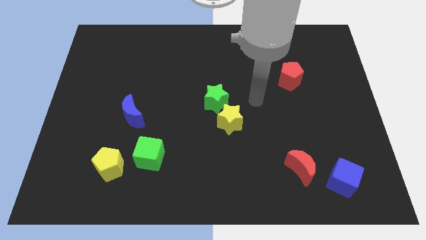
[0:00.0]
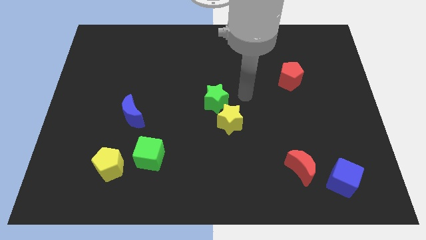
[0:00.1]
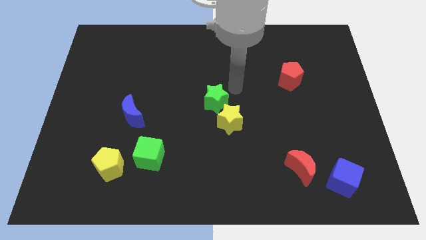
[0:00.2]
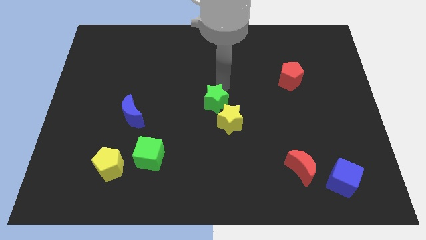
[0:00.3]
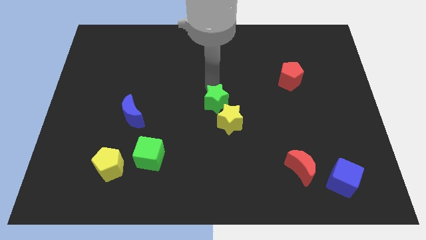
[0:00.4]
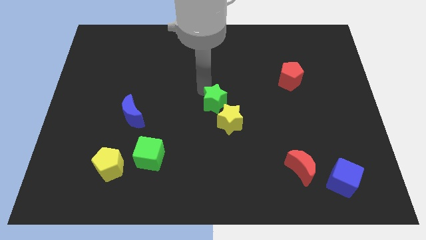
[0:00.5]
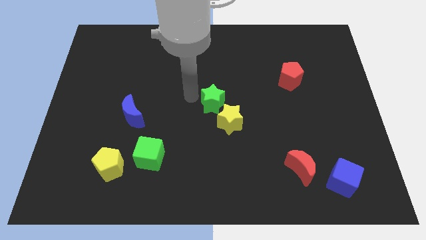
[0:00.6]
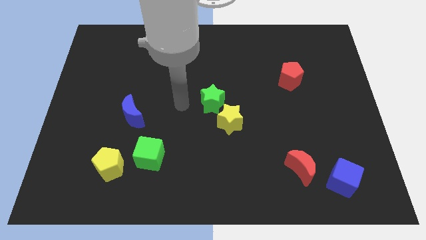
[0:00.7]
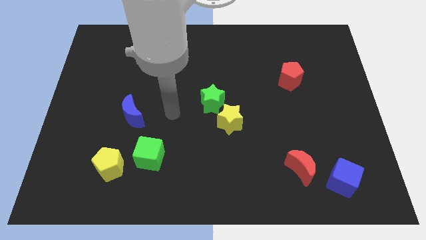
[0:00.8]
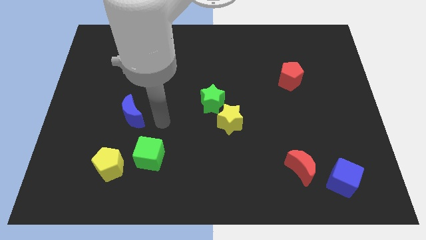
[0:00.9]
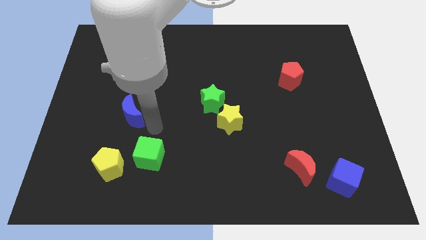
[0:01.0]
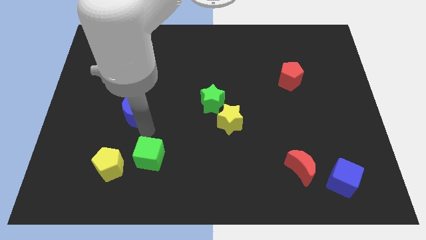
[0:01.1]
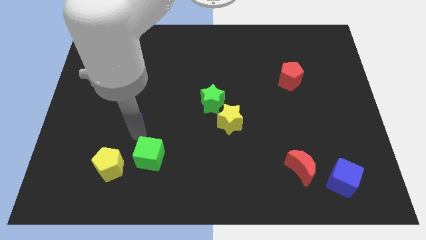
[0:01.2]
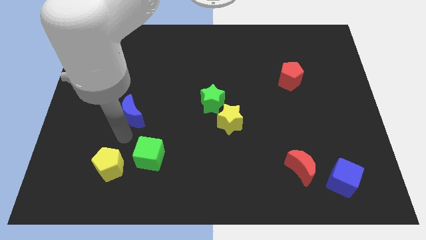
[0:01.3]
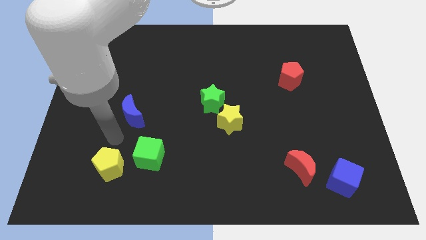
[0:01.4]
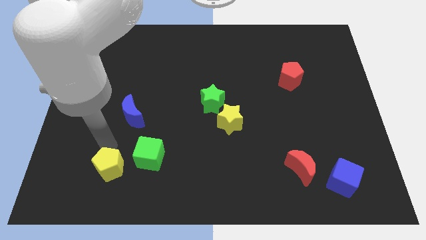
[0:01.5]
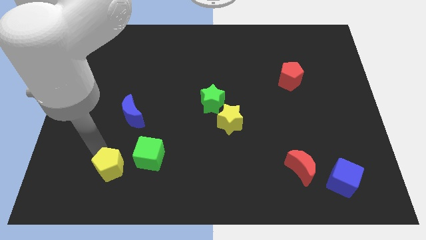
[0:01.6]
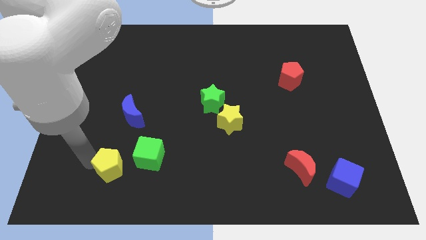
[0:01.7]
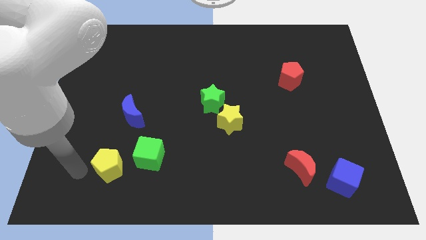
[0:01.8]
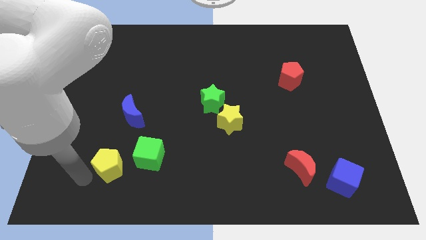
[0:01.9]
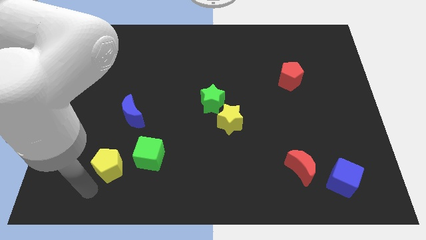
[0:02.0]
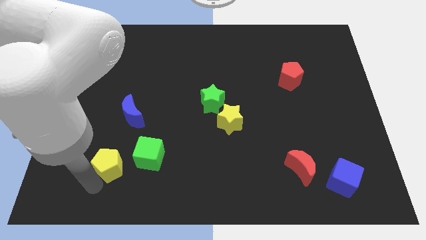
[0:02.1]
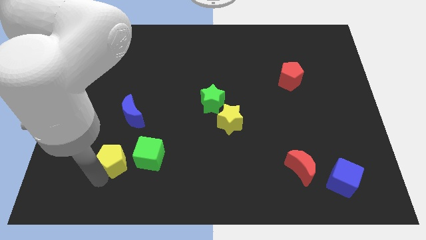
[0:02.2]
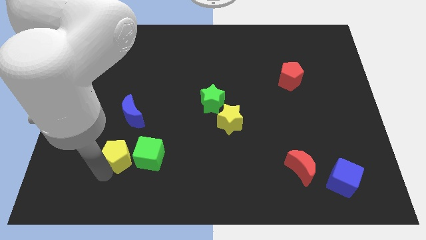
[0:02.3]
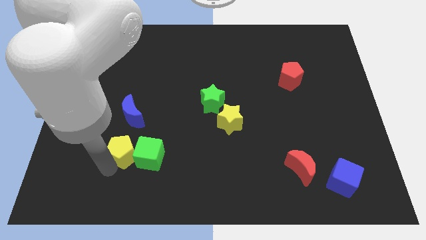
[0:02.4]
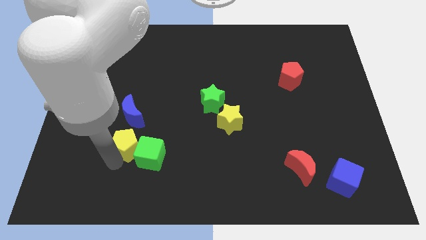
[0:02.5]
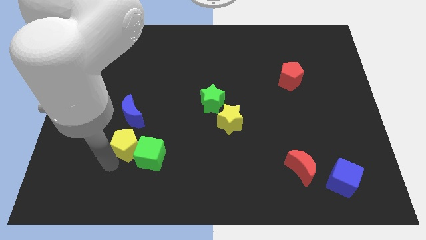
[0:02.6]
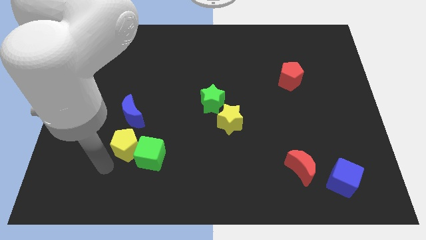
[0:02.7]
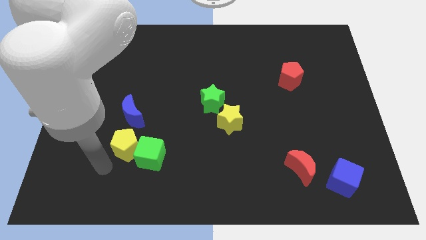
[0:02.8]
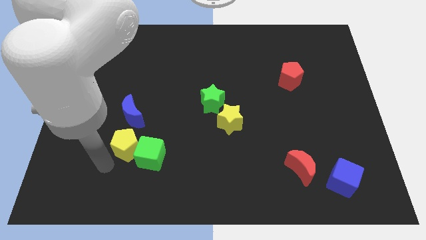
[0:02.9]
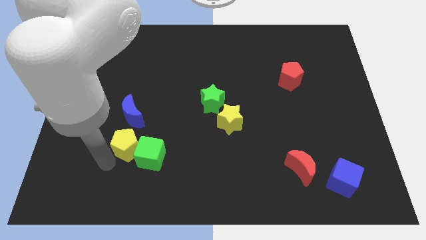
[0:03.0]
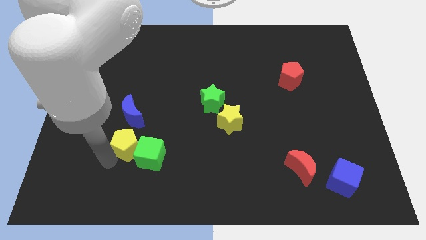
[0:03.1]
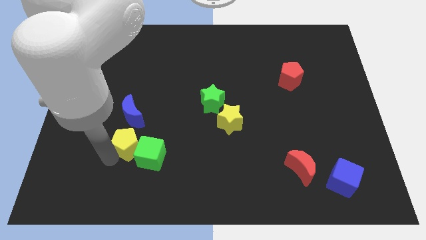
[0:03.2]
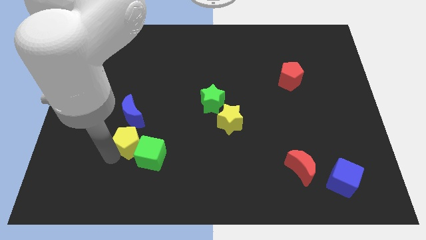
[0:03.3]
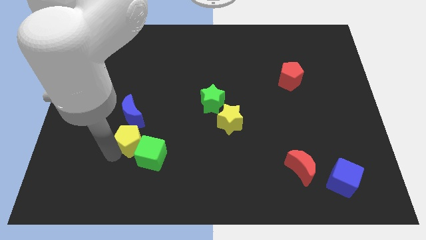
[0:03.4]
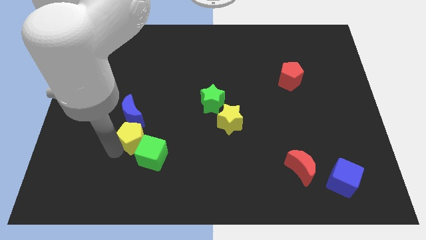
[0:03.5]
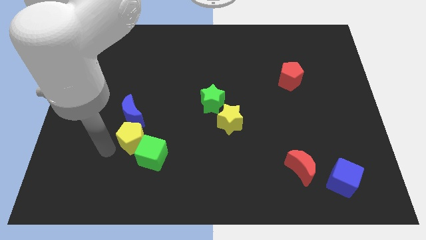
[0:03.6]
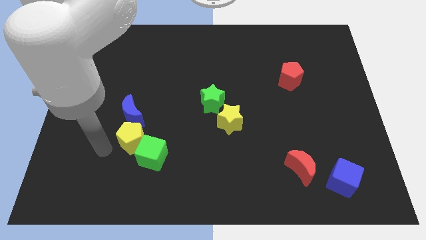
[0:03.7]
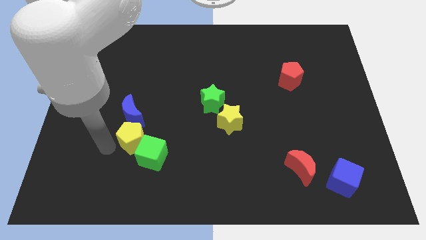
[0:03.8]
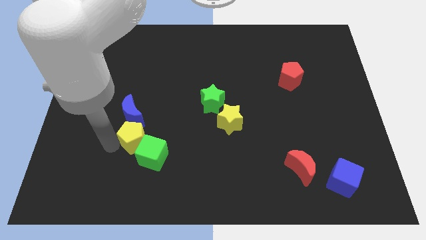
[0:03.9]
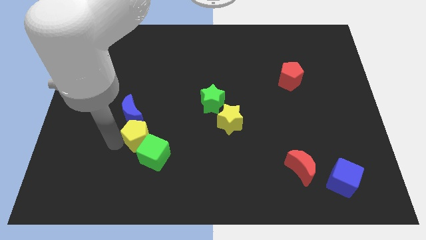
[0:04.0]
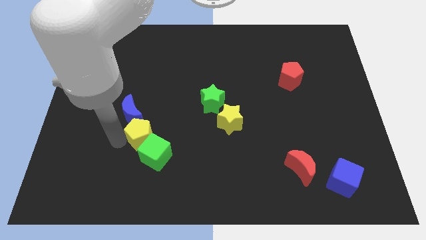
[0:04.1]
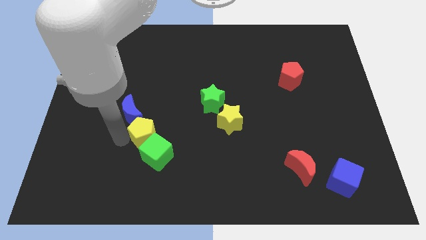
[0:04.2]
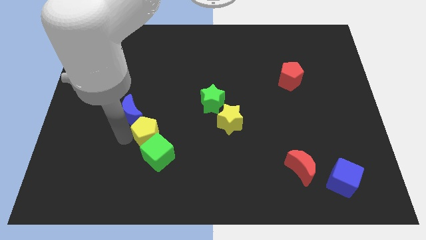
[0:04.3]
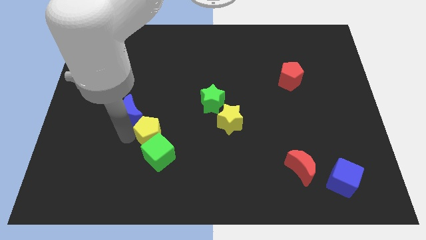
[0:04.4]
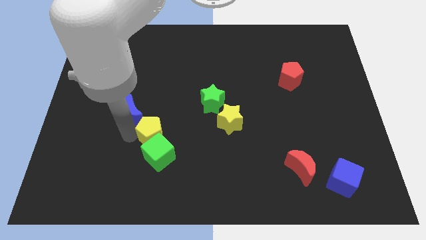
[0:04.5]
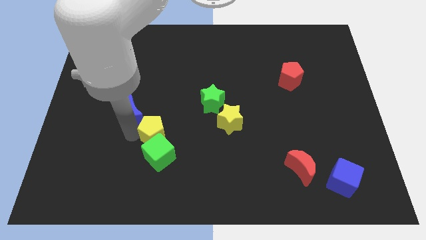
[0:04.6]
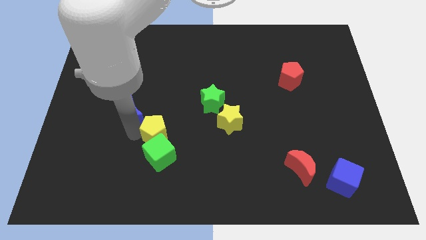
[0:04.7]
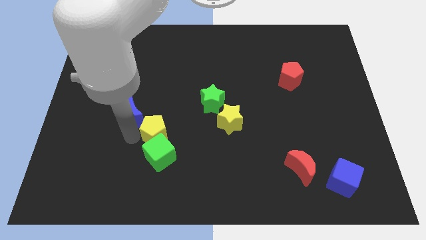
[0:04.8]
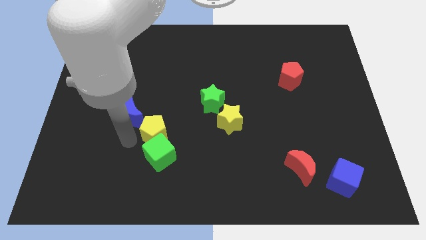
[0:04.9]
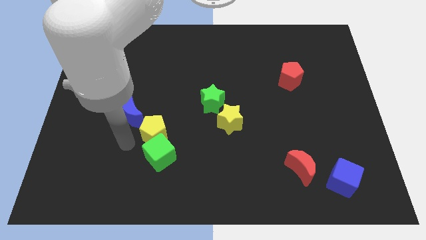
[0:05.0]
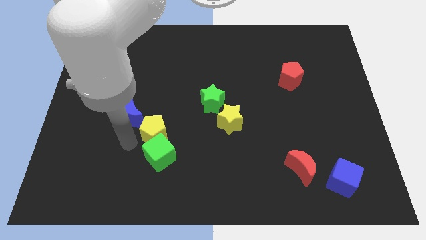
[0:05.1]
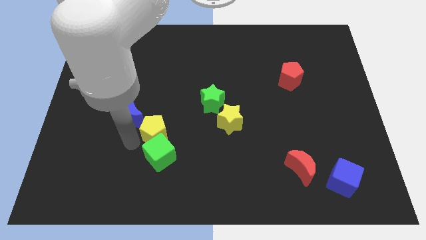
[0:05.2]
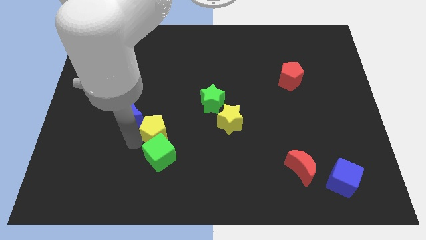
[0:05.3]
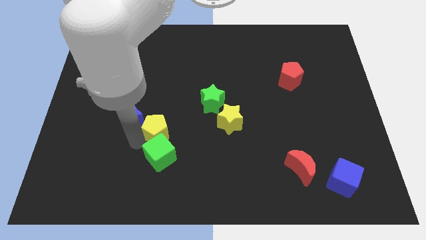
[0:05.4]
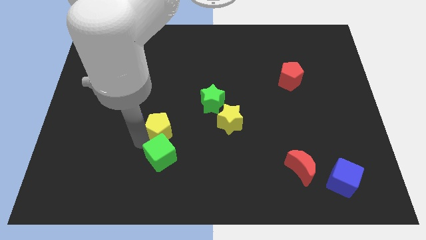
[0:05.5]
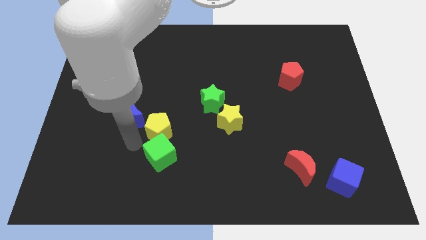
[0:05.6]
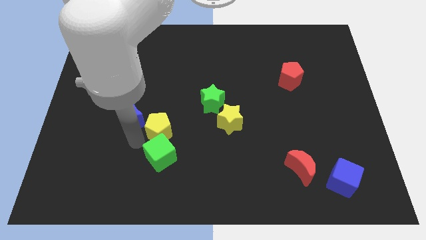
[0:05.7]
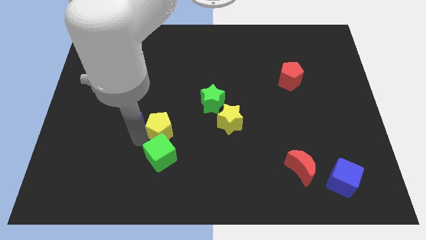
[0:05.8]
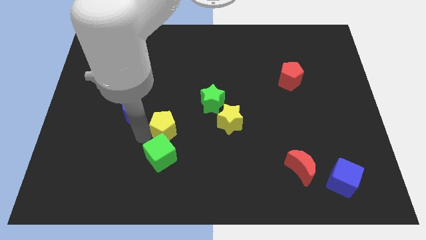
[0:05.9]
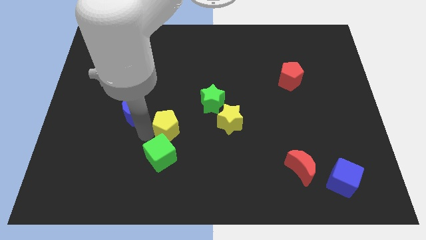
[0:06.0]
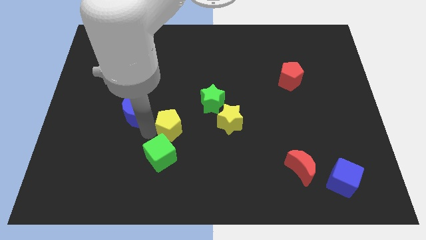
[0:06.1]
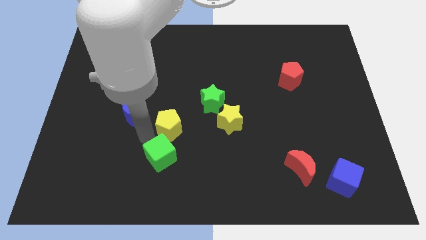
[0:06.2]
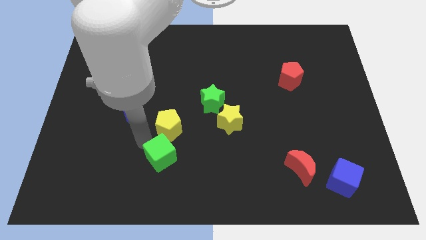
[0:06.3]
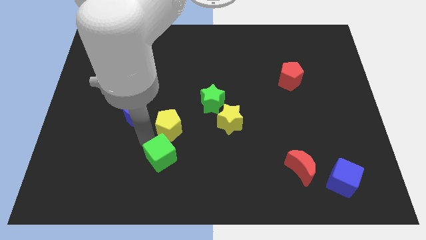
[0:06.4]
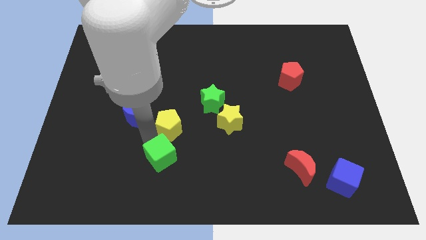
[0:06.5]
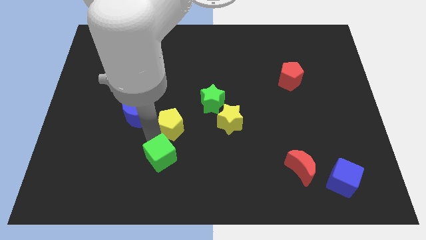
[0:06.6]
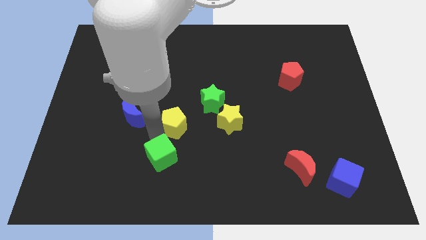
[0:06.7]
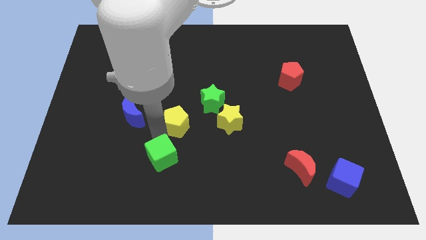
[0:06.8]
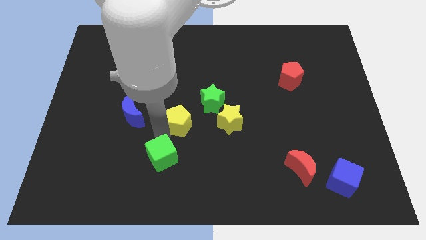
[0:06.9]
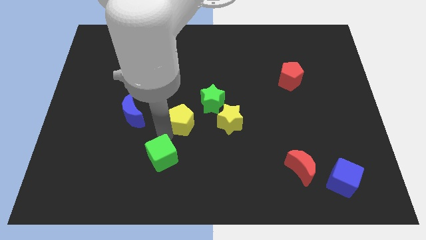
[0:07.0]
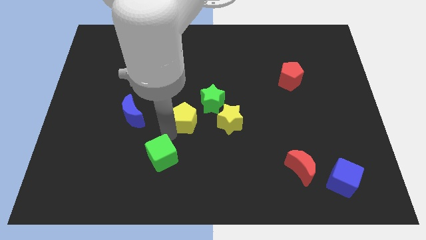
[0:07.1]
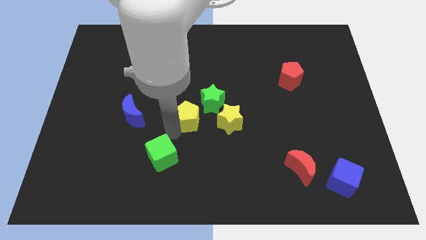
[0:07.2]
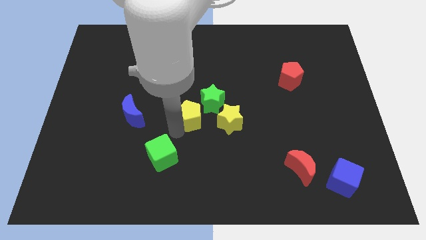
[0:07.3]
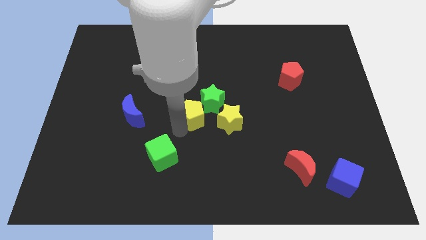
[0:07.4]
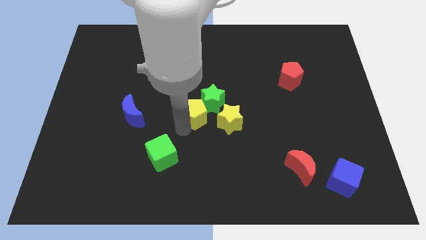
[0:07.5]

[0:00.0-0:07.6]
move the yellow pentagon to the green star
